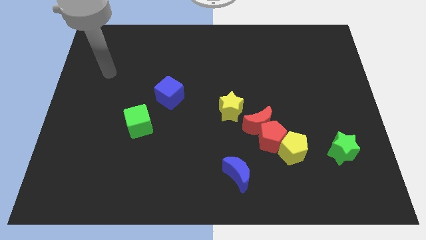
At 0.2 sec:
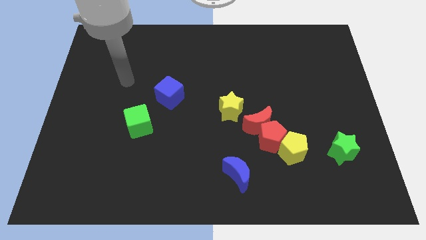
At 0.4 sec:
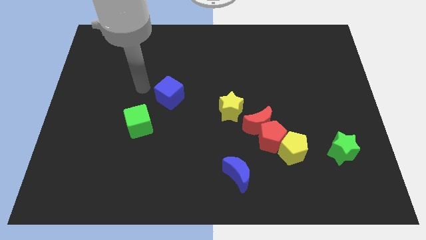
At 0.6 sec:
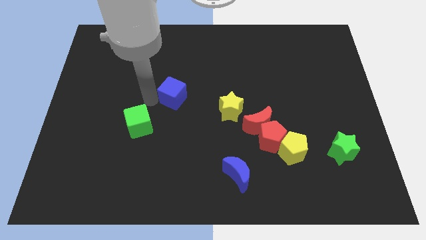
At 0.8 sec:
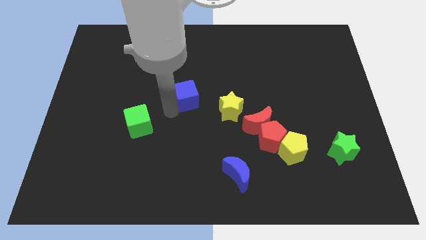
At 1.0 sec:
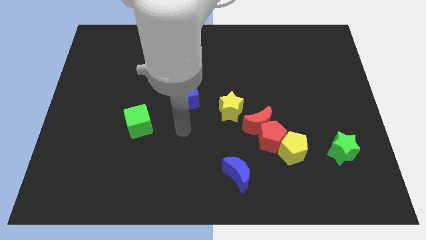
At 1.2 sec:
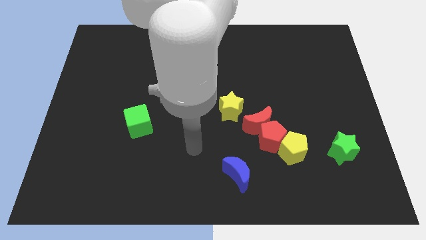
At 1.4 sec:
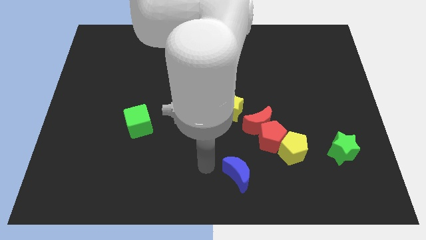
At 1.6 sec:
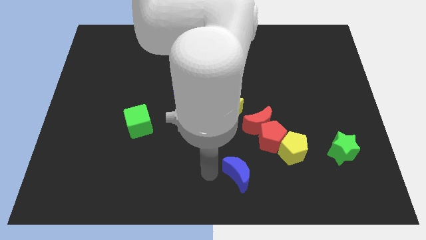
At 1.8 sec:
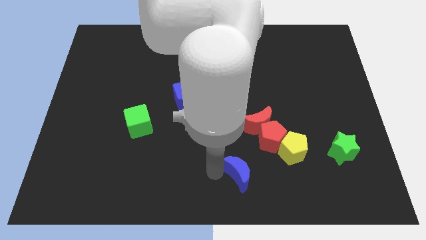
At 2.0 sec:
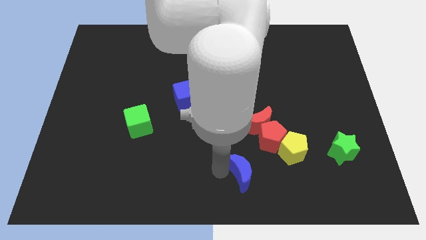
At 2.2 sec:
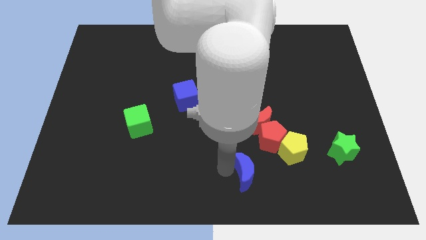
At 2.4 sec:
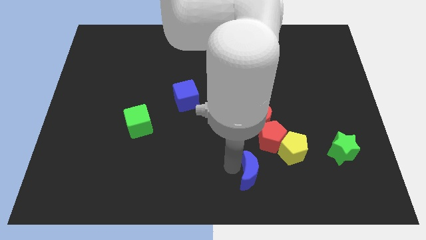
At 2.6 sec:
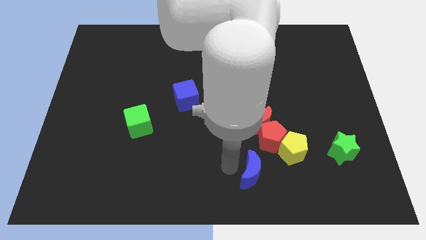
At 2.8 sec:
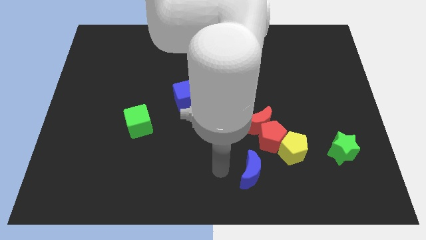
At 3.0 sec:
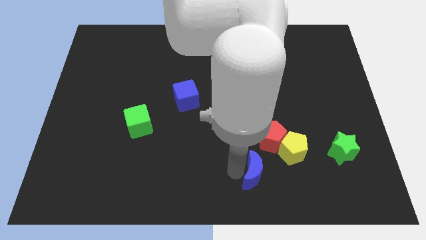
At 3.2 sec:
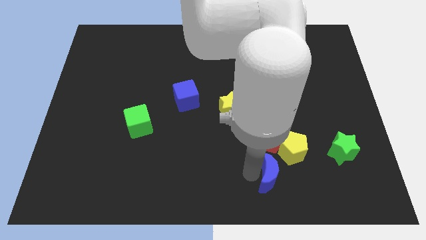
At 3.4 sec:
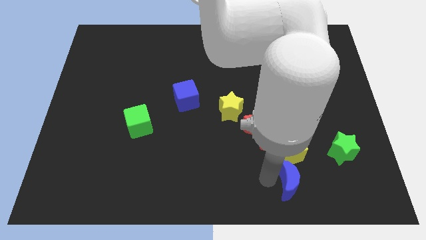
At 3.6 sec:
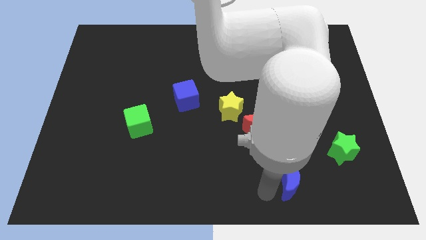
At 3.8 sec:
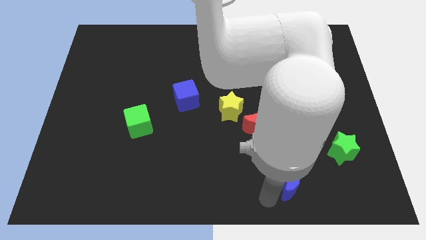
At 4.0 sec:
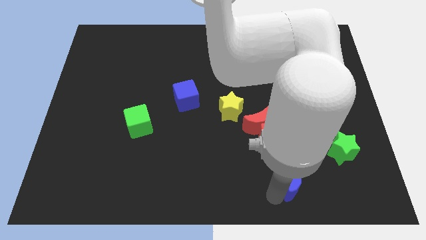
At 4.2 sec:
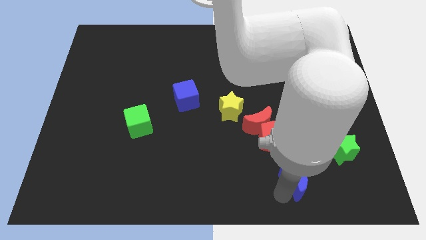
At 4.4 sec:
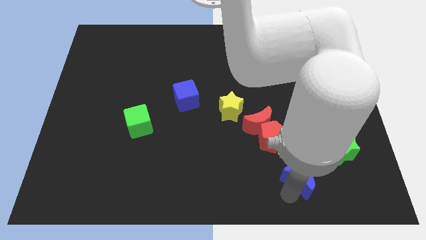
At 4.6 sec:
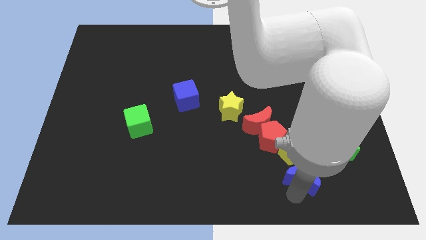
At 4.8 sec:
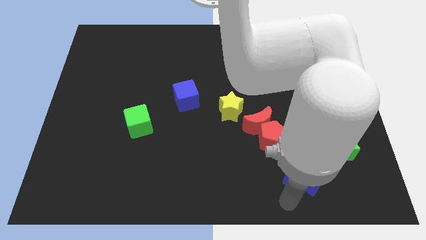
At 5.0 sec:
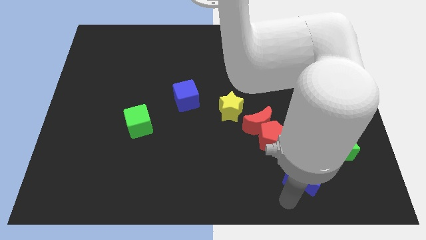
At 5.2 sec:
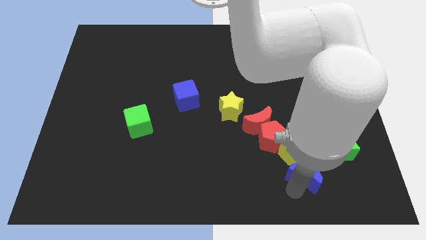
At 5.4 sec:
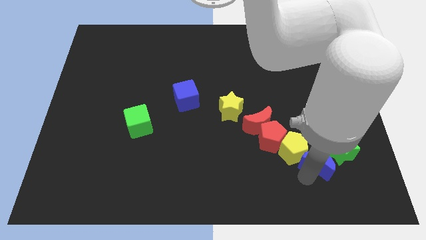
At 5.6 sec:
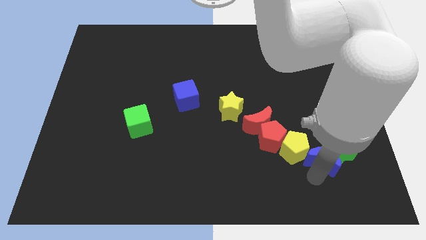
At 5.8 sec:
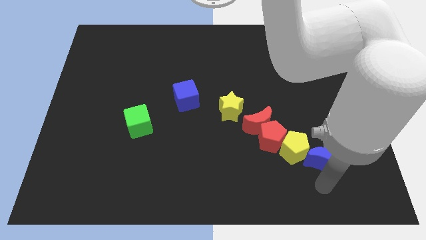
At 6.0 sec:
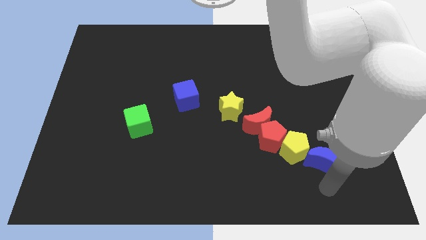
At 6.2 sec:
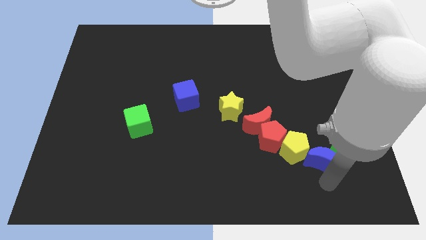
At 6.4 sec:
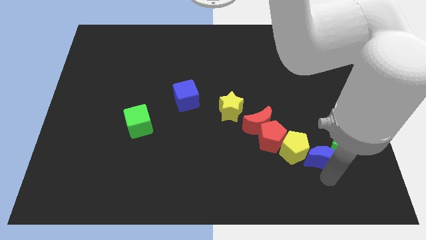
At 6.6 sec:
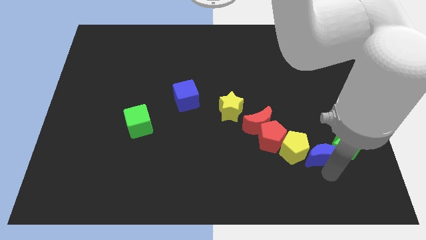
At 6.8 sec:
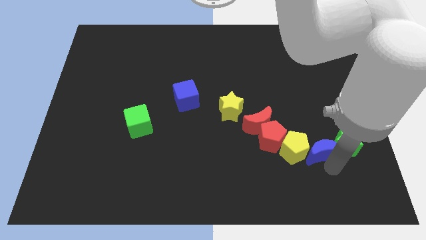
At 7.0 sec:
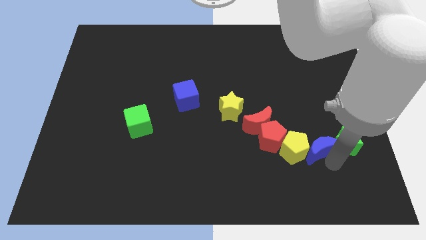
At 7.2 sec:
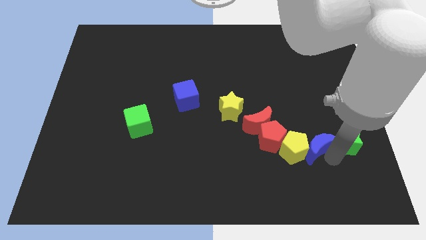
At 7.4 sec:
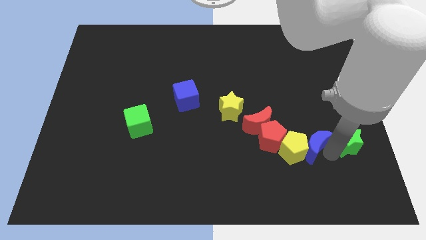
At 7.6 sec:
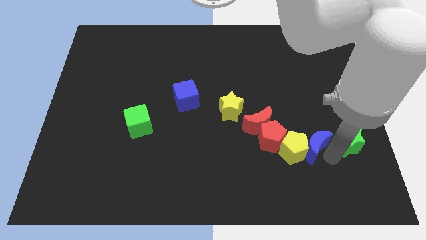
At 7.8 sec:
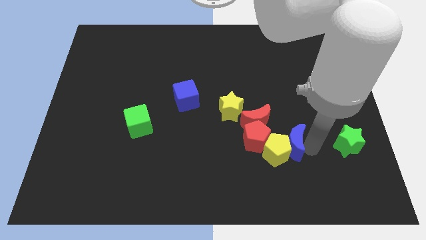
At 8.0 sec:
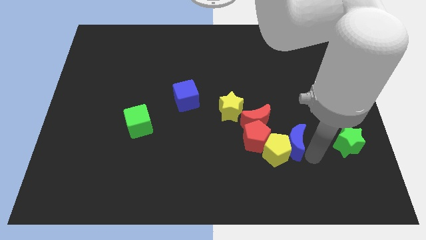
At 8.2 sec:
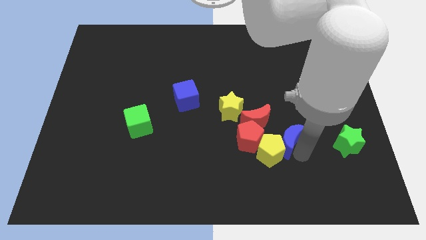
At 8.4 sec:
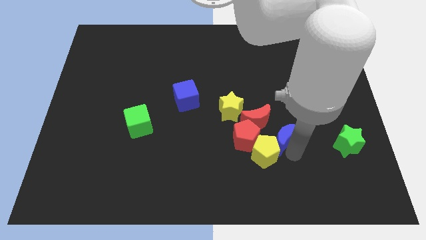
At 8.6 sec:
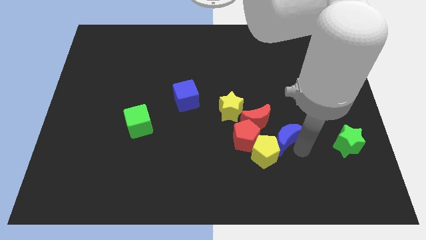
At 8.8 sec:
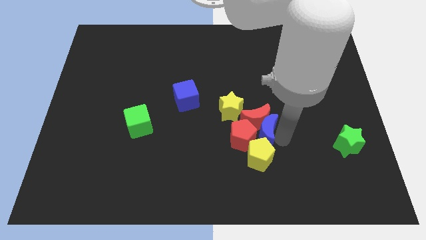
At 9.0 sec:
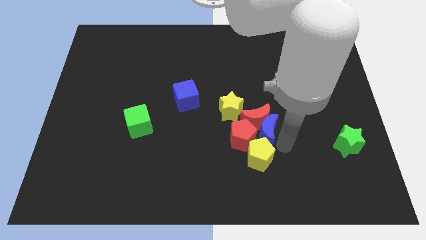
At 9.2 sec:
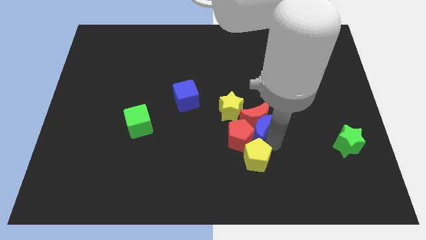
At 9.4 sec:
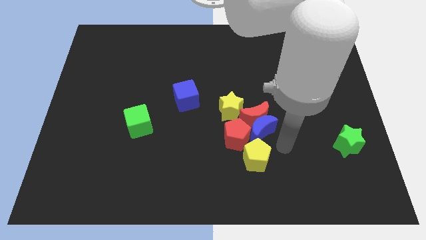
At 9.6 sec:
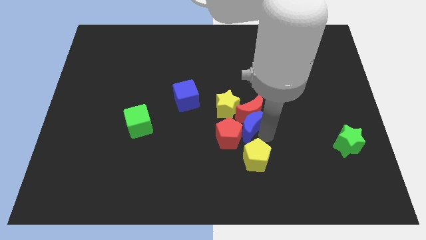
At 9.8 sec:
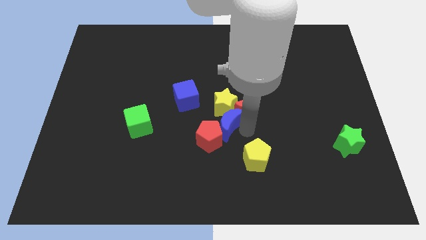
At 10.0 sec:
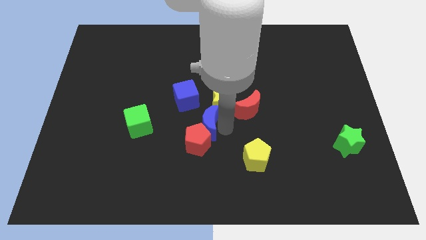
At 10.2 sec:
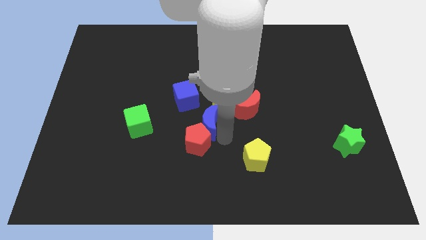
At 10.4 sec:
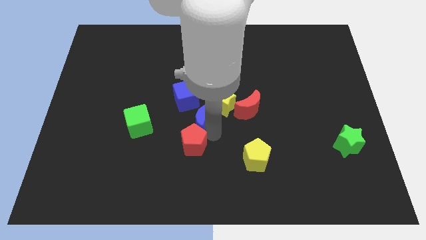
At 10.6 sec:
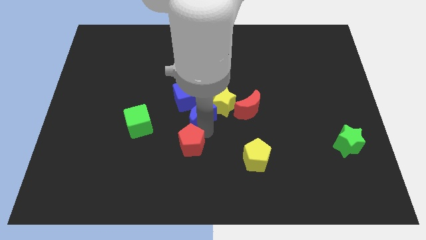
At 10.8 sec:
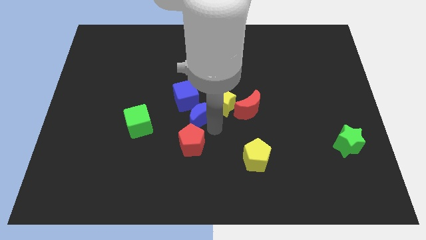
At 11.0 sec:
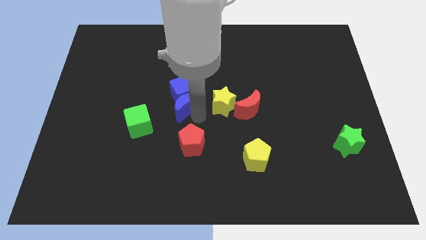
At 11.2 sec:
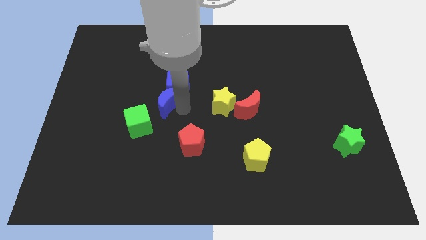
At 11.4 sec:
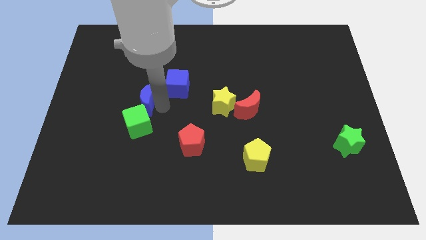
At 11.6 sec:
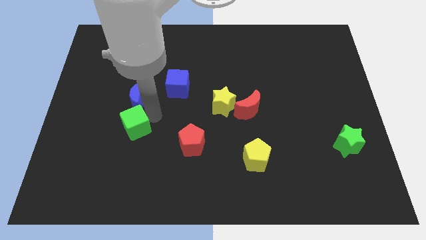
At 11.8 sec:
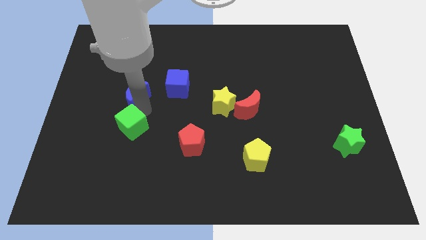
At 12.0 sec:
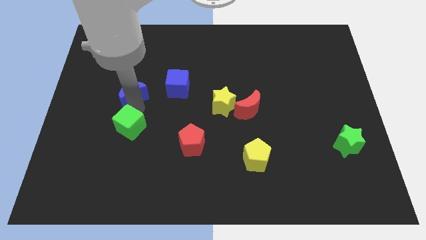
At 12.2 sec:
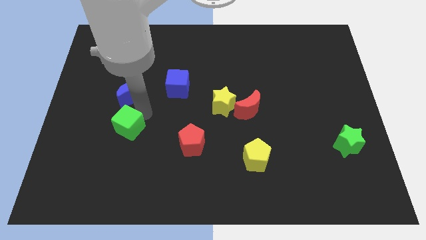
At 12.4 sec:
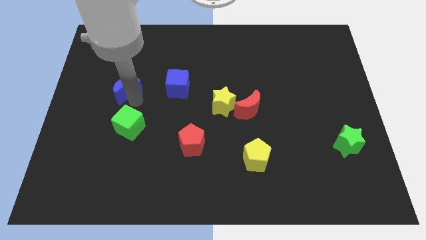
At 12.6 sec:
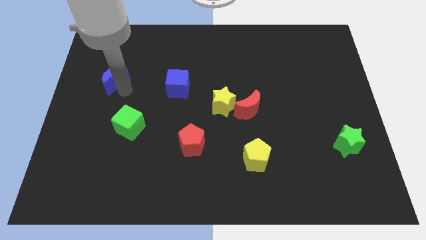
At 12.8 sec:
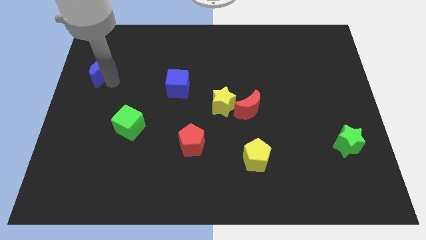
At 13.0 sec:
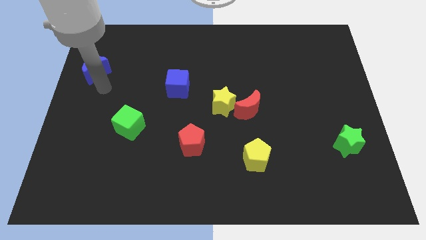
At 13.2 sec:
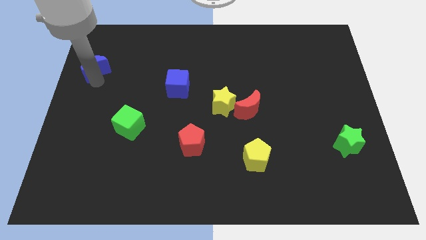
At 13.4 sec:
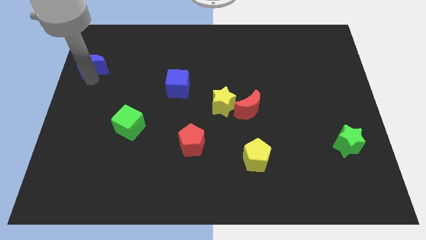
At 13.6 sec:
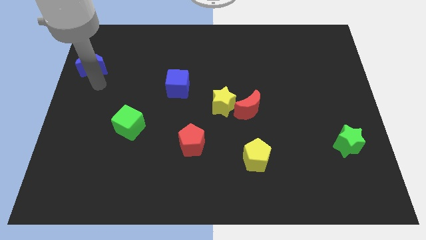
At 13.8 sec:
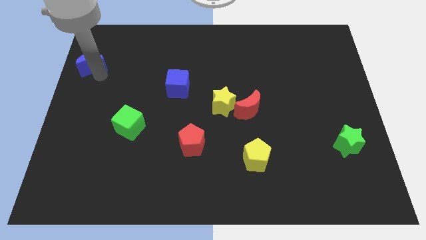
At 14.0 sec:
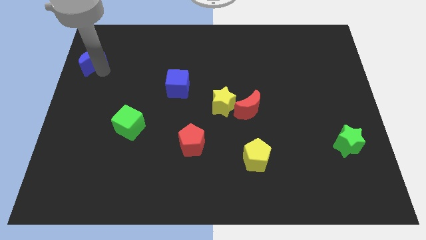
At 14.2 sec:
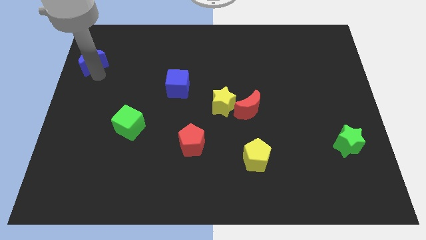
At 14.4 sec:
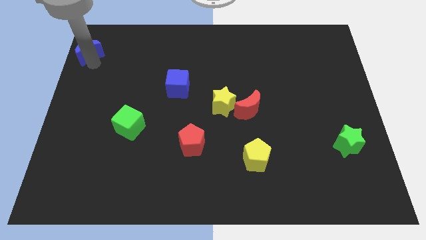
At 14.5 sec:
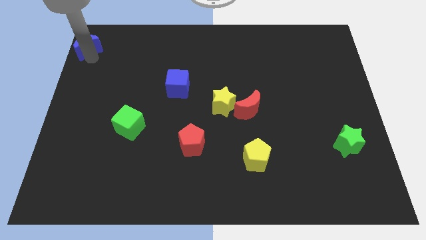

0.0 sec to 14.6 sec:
push the blue moon to the top left of the board
